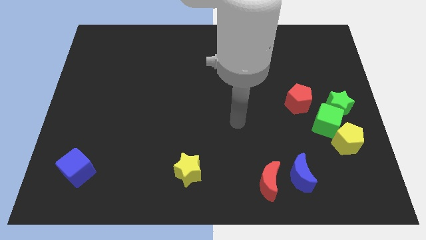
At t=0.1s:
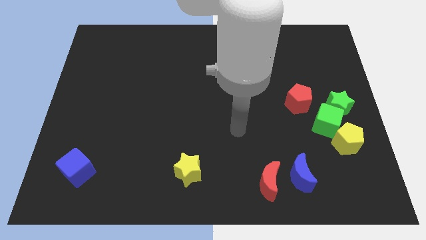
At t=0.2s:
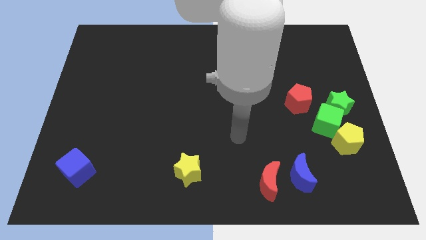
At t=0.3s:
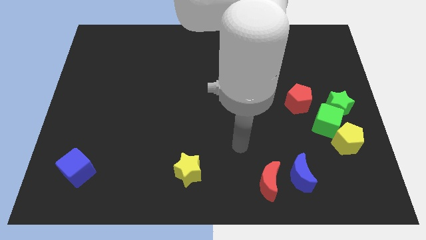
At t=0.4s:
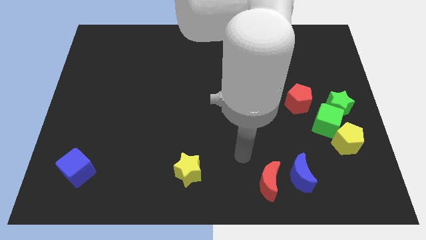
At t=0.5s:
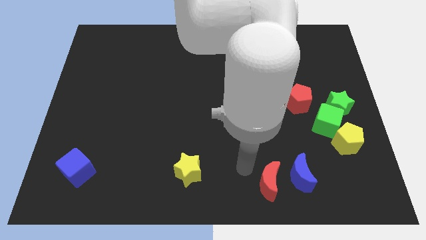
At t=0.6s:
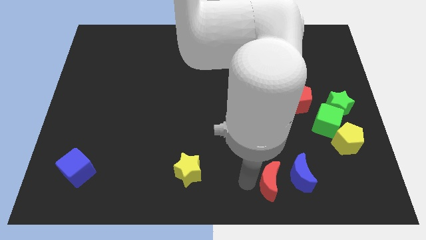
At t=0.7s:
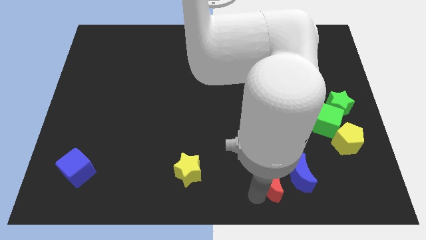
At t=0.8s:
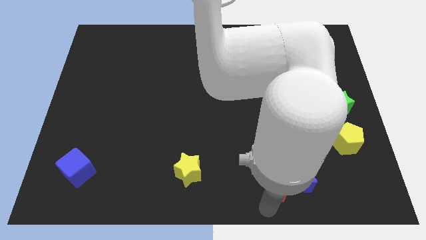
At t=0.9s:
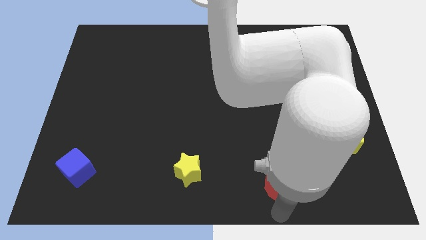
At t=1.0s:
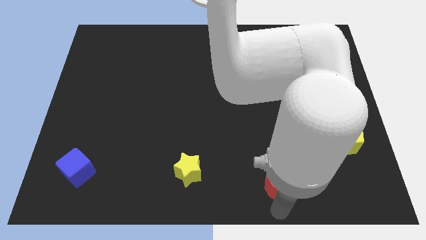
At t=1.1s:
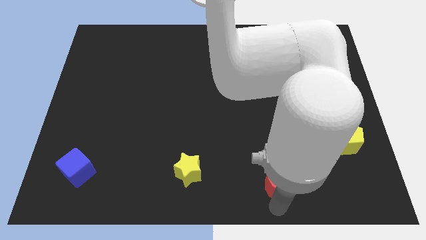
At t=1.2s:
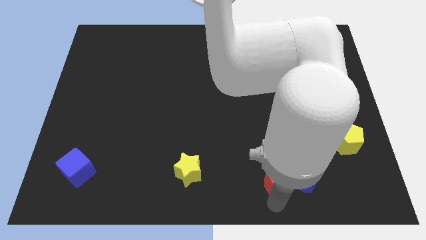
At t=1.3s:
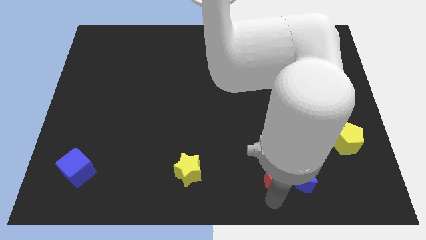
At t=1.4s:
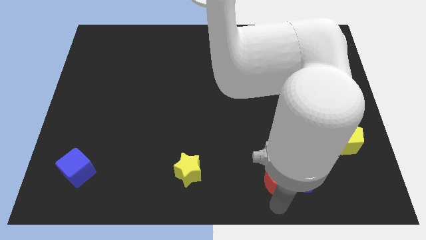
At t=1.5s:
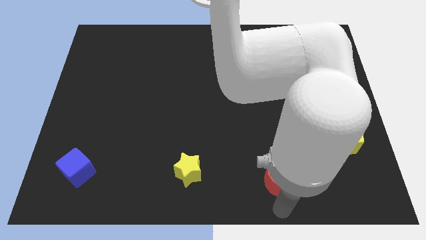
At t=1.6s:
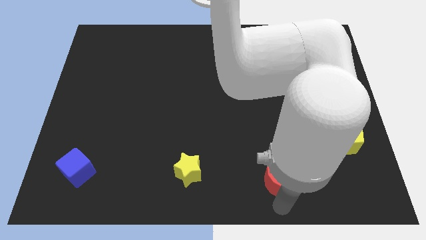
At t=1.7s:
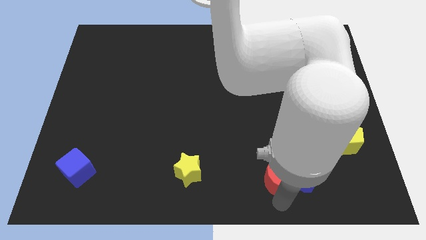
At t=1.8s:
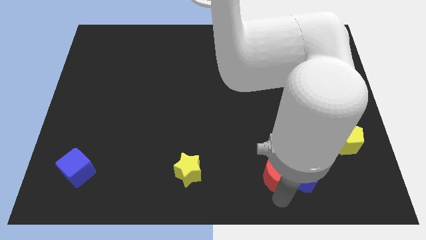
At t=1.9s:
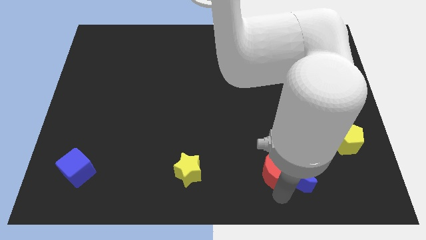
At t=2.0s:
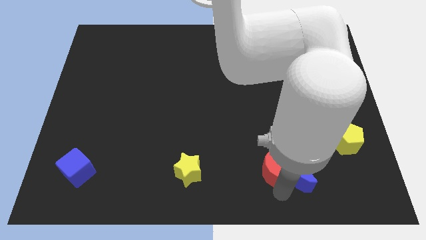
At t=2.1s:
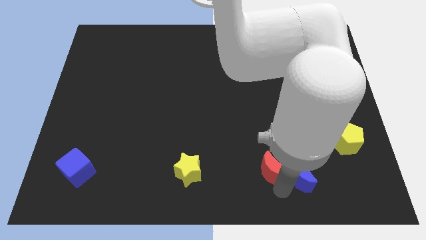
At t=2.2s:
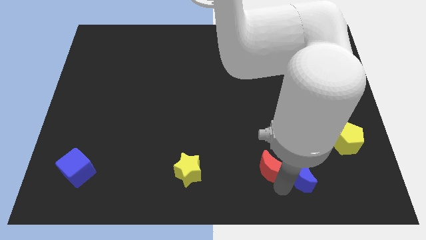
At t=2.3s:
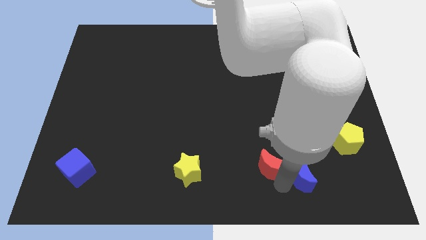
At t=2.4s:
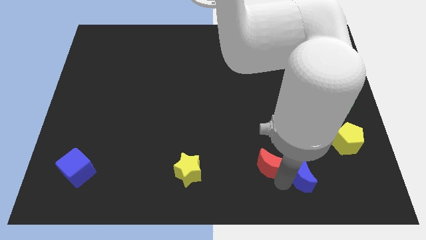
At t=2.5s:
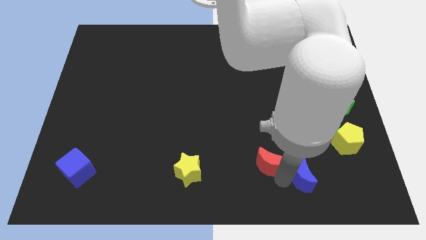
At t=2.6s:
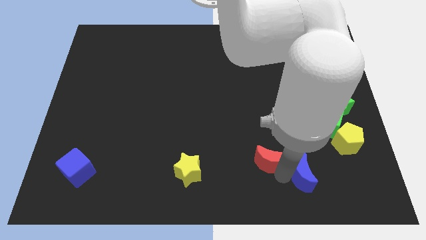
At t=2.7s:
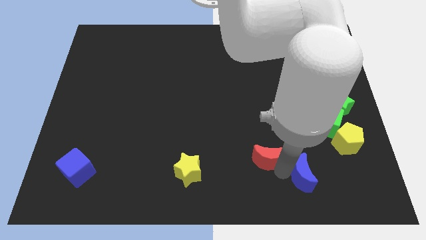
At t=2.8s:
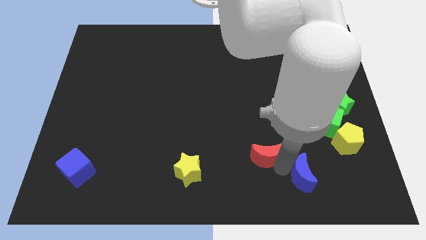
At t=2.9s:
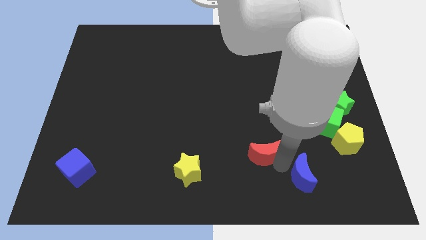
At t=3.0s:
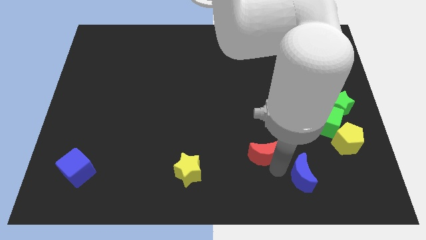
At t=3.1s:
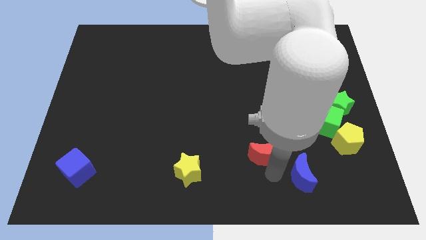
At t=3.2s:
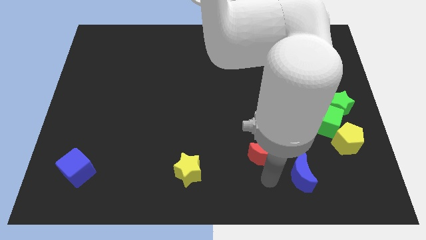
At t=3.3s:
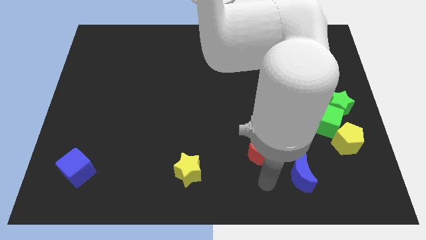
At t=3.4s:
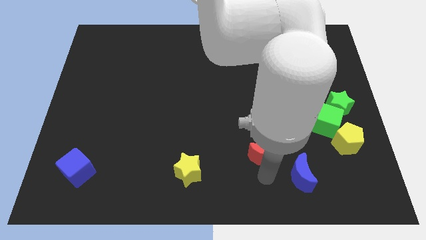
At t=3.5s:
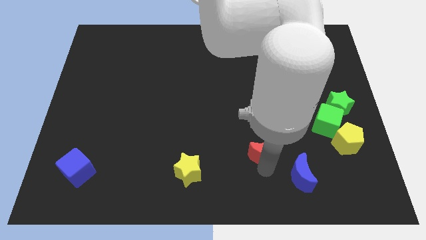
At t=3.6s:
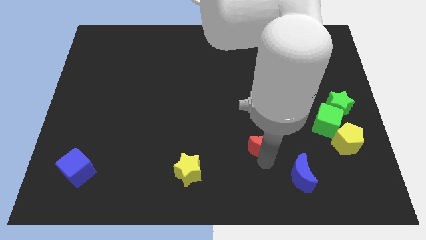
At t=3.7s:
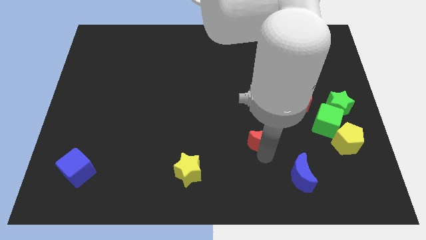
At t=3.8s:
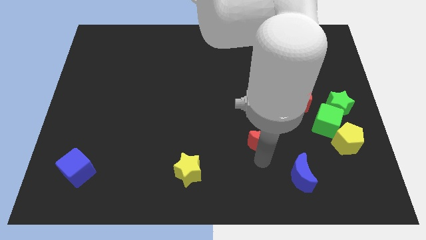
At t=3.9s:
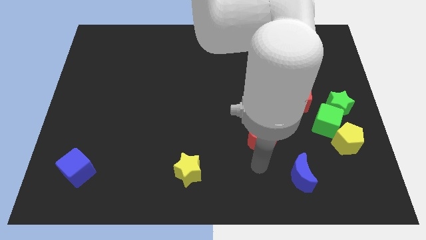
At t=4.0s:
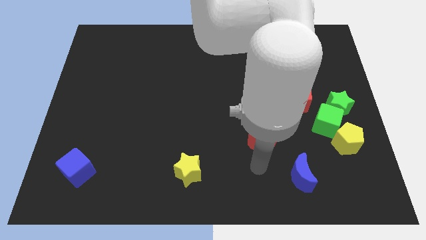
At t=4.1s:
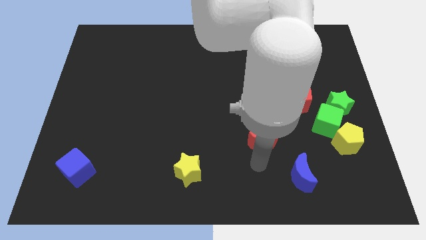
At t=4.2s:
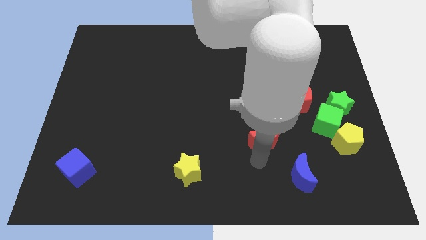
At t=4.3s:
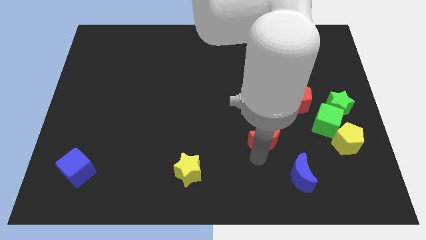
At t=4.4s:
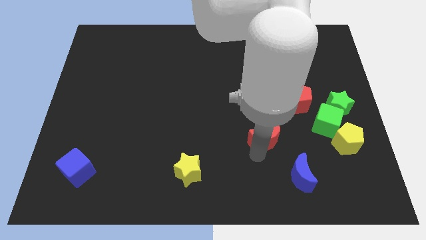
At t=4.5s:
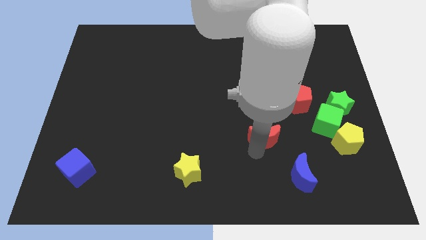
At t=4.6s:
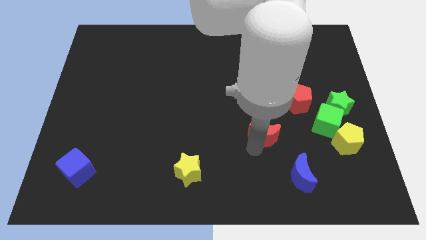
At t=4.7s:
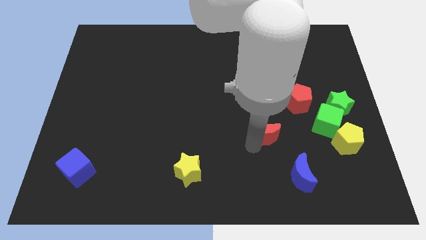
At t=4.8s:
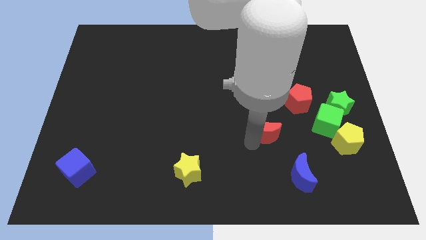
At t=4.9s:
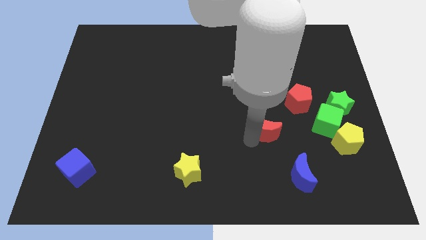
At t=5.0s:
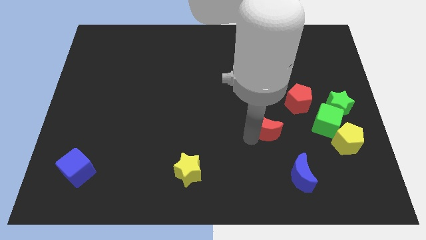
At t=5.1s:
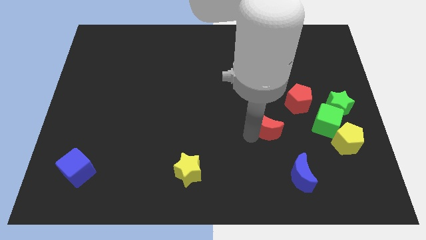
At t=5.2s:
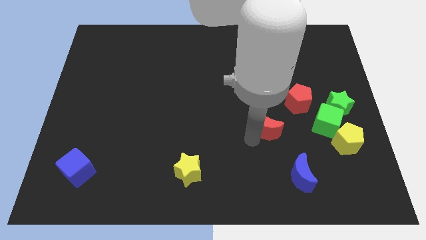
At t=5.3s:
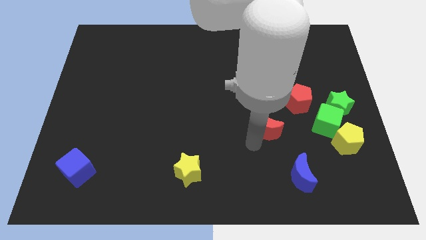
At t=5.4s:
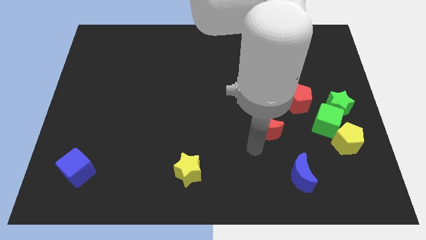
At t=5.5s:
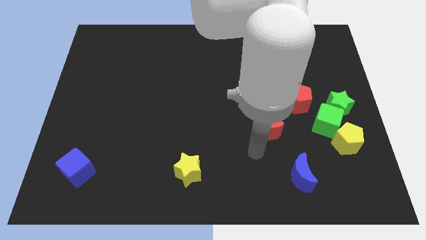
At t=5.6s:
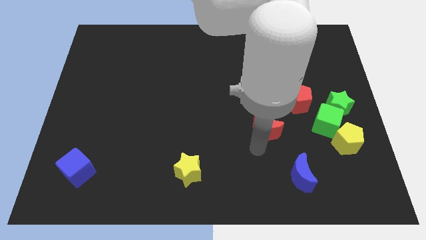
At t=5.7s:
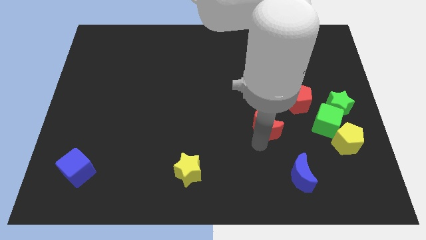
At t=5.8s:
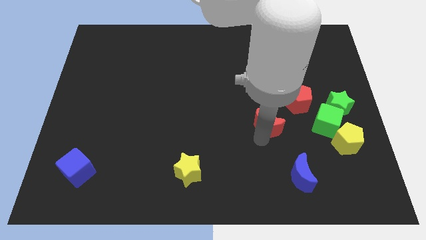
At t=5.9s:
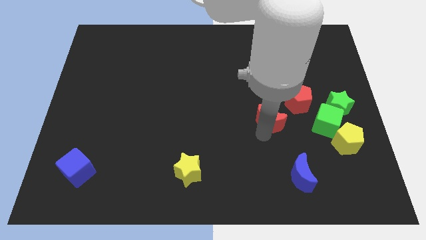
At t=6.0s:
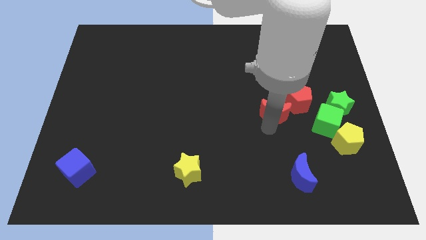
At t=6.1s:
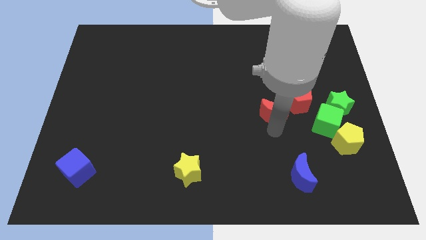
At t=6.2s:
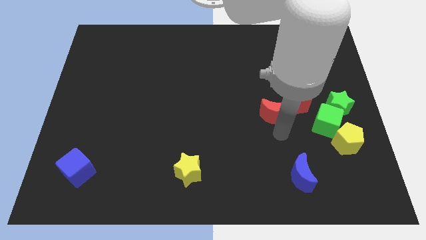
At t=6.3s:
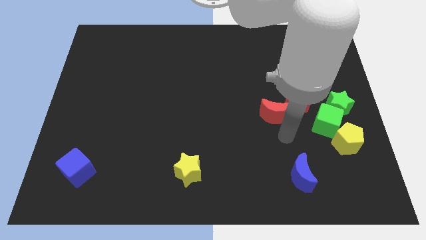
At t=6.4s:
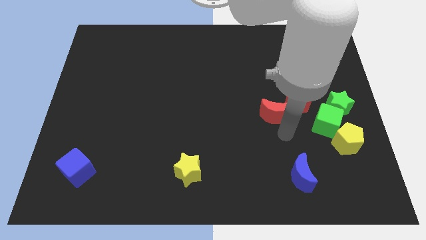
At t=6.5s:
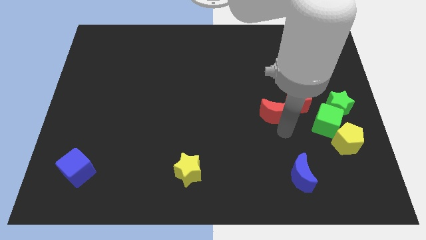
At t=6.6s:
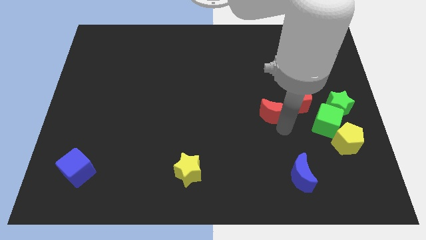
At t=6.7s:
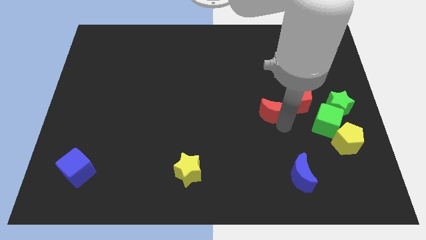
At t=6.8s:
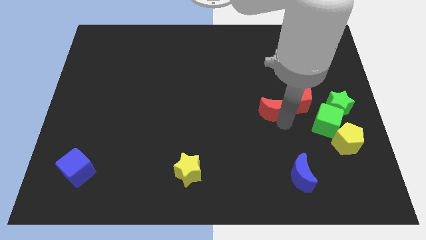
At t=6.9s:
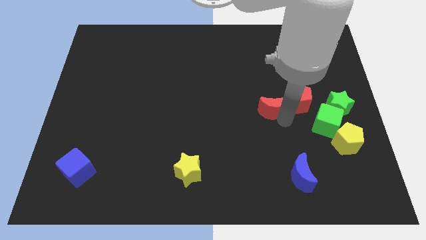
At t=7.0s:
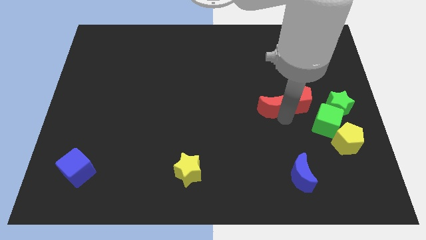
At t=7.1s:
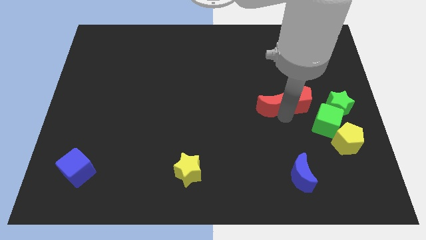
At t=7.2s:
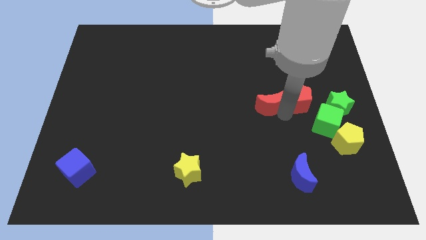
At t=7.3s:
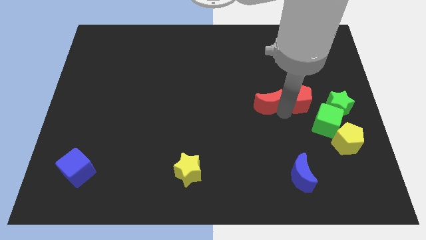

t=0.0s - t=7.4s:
slide the red moon upwards

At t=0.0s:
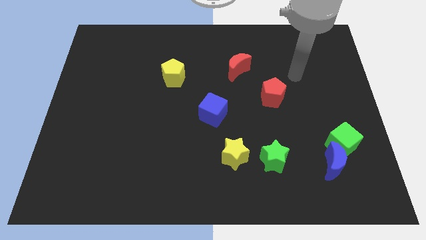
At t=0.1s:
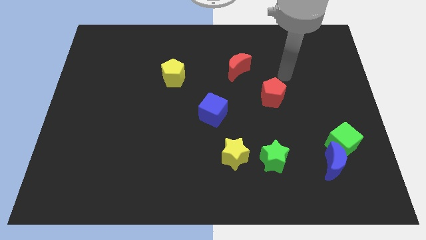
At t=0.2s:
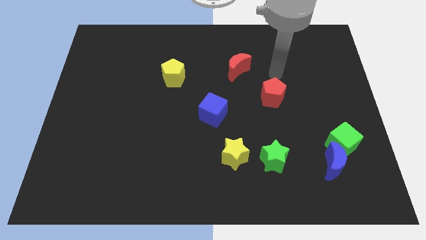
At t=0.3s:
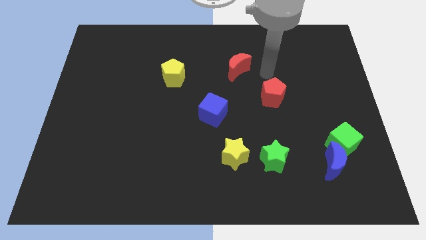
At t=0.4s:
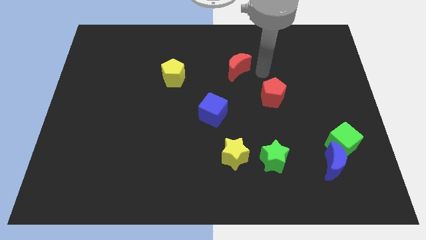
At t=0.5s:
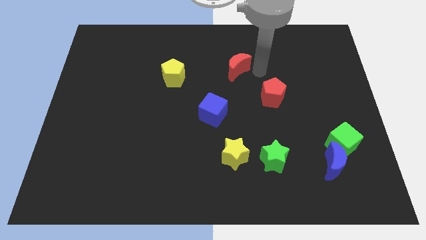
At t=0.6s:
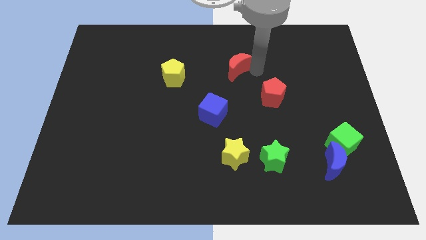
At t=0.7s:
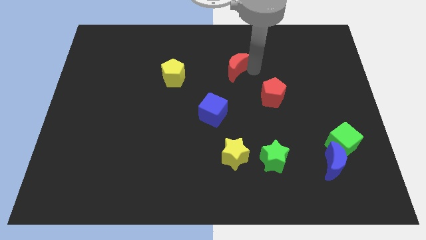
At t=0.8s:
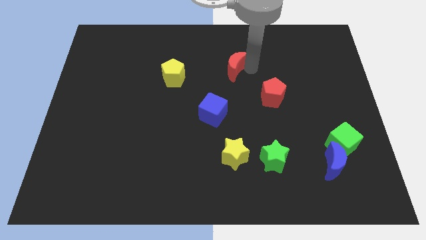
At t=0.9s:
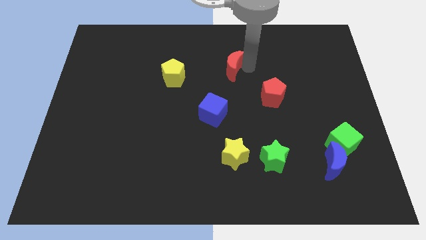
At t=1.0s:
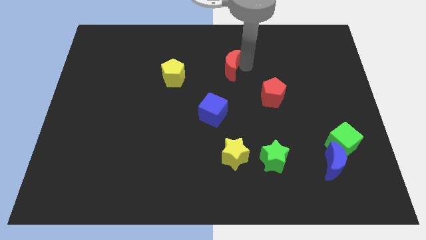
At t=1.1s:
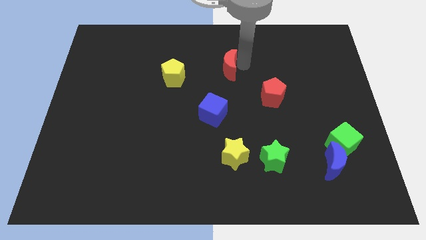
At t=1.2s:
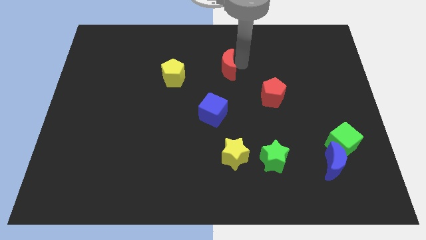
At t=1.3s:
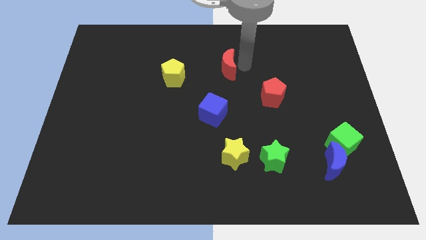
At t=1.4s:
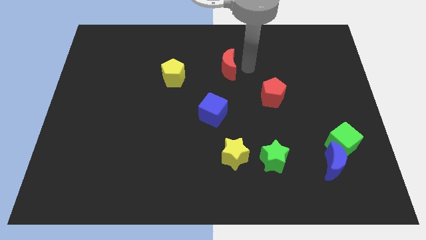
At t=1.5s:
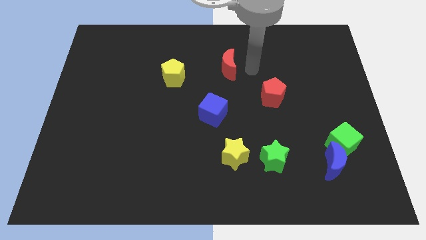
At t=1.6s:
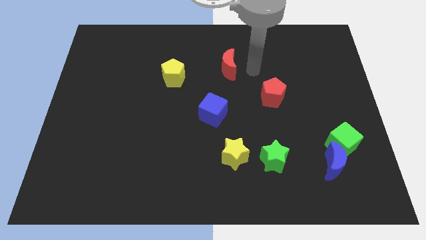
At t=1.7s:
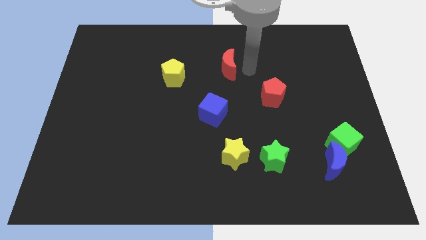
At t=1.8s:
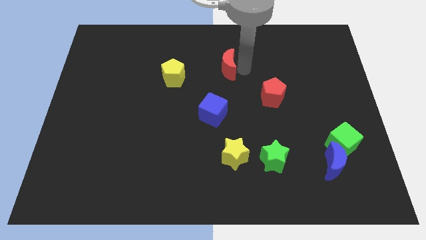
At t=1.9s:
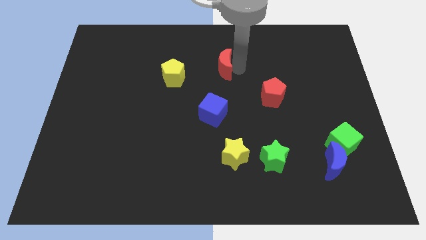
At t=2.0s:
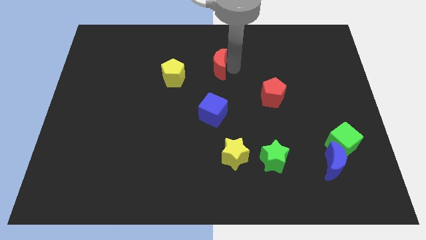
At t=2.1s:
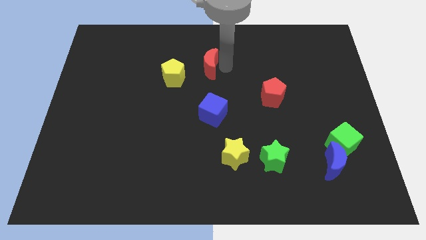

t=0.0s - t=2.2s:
push the red moon to the left a little bit
